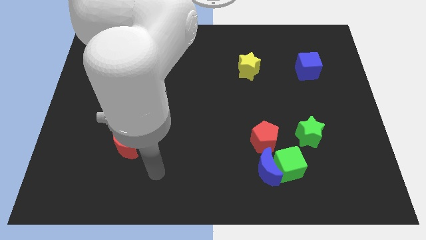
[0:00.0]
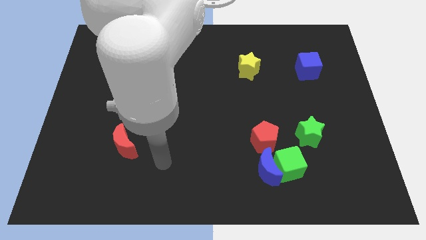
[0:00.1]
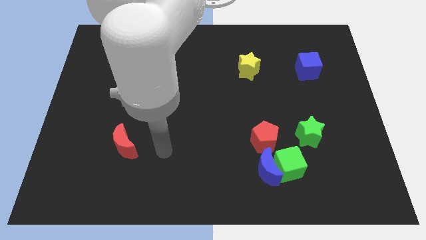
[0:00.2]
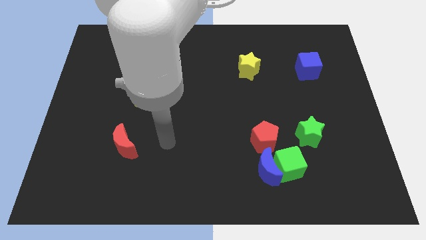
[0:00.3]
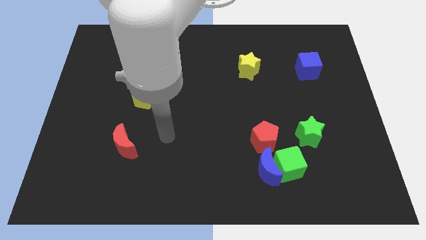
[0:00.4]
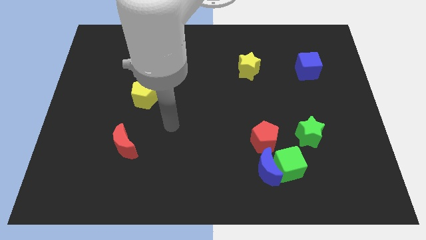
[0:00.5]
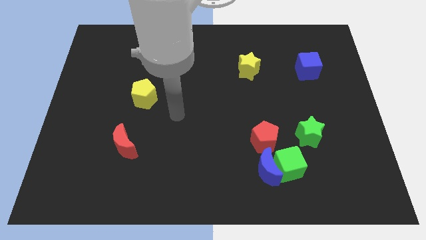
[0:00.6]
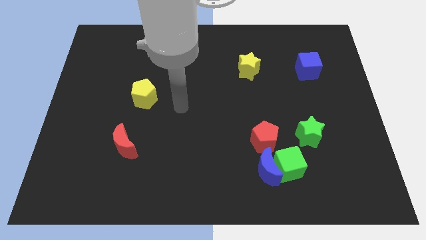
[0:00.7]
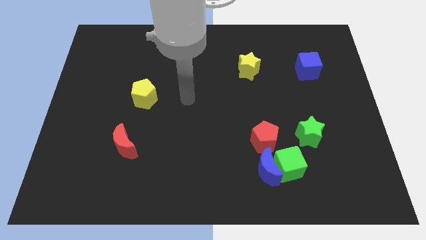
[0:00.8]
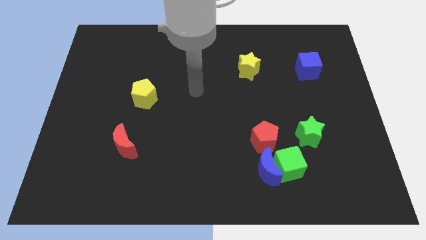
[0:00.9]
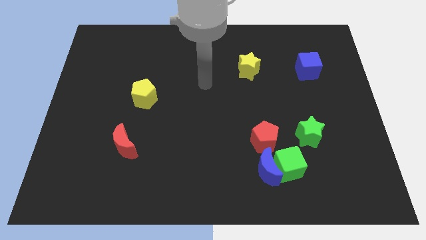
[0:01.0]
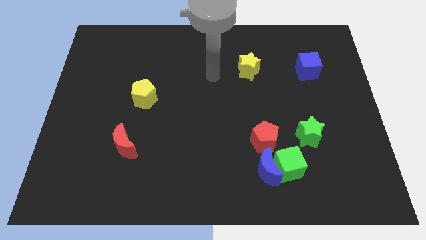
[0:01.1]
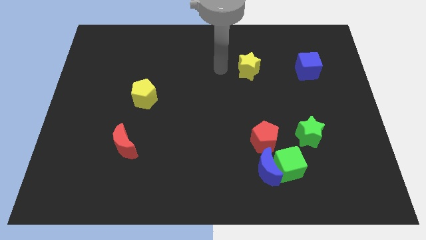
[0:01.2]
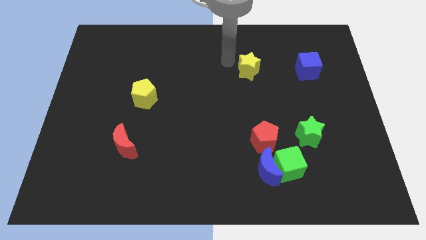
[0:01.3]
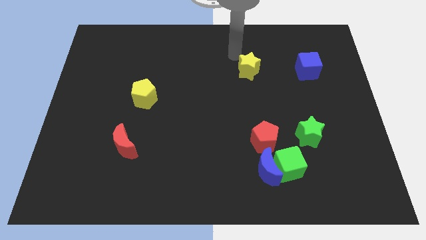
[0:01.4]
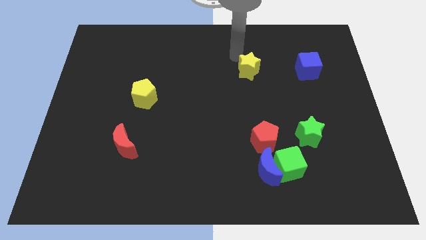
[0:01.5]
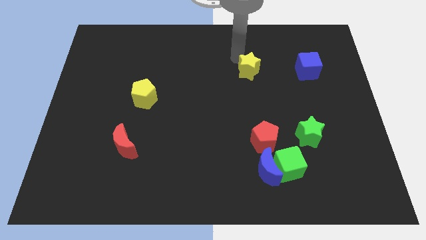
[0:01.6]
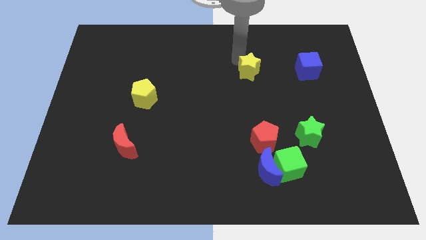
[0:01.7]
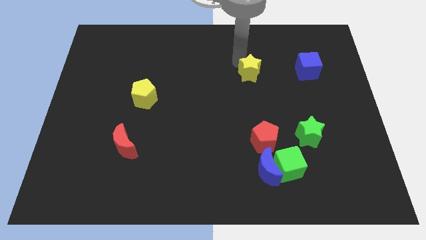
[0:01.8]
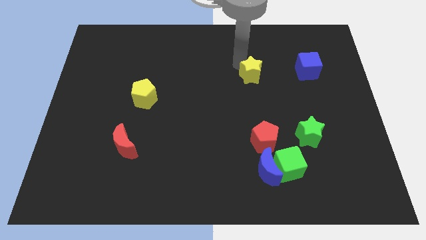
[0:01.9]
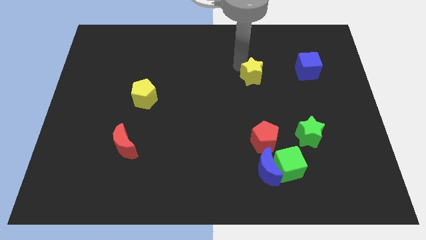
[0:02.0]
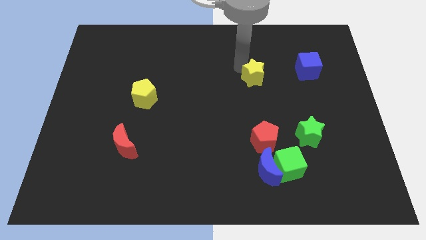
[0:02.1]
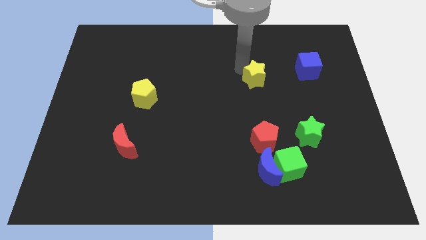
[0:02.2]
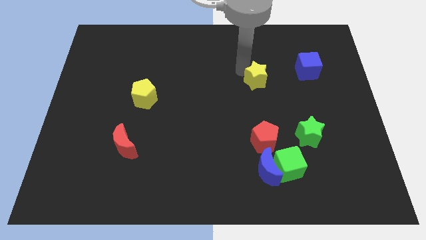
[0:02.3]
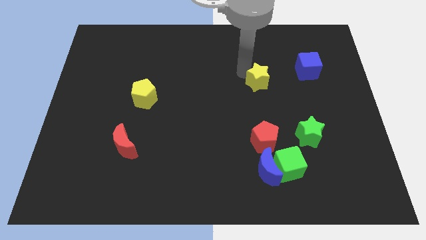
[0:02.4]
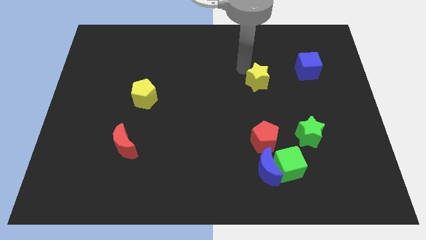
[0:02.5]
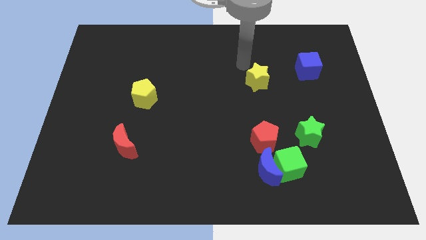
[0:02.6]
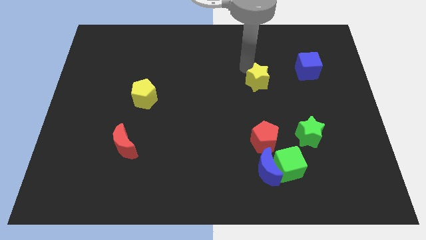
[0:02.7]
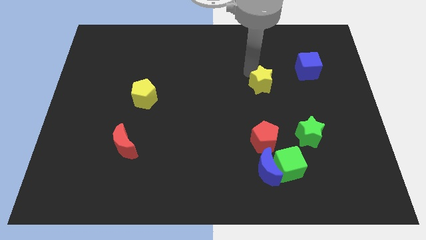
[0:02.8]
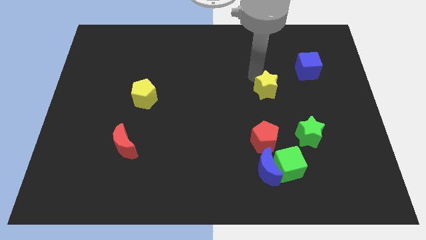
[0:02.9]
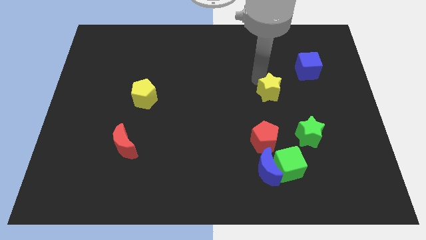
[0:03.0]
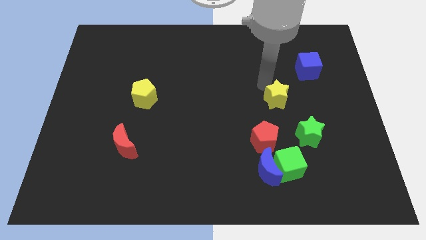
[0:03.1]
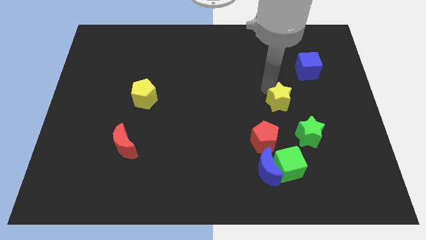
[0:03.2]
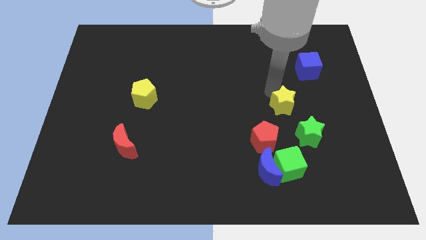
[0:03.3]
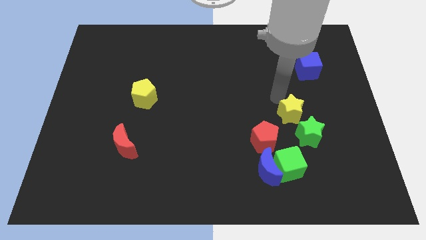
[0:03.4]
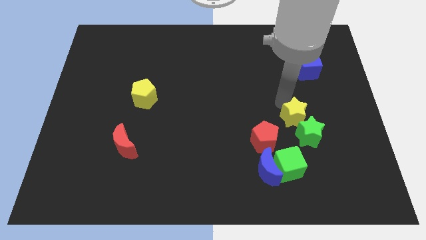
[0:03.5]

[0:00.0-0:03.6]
move the yellow star next to the green star

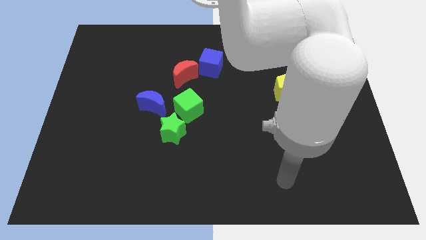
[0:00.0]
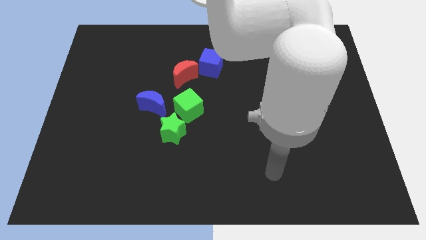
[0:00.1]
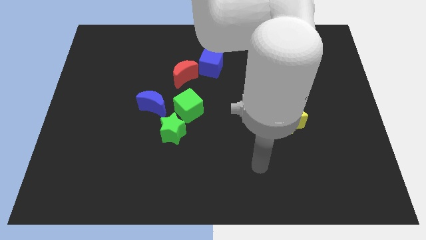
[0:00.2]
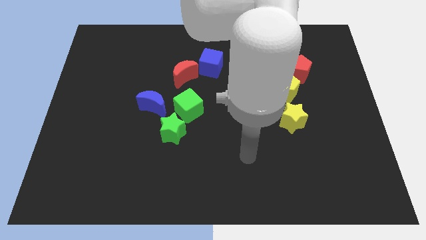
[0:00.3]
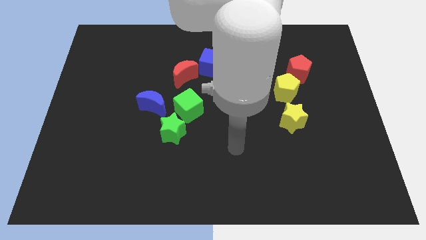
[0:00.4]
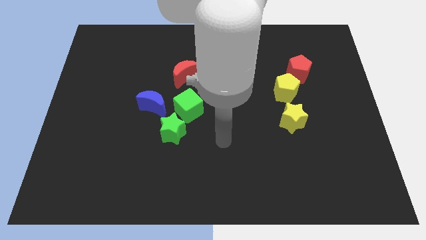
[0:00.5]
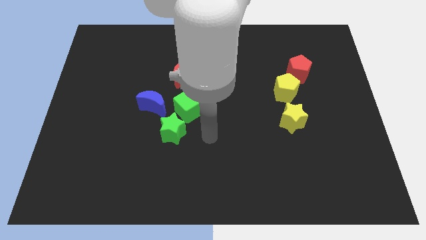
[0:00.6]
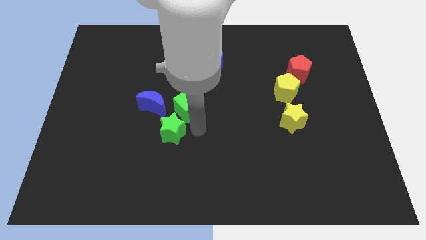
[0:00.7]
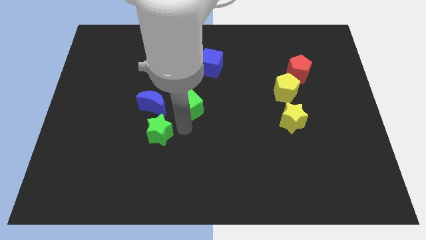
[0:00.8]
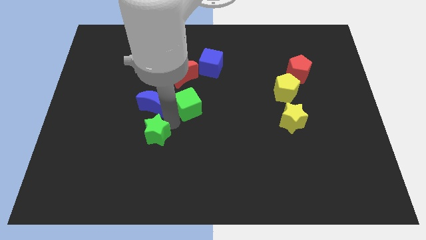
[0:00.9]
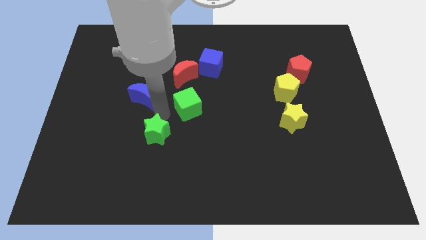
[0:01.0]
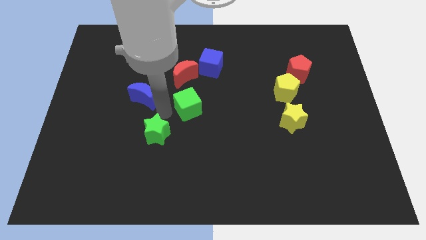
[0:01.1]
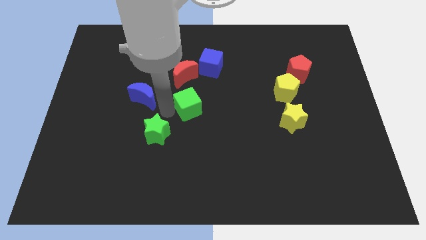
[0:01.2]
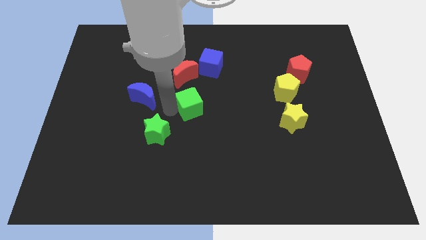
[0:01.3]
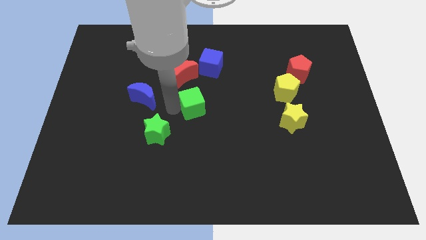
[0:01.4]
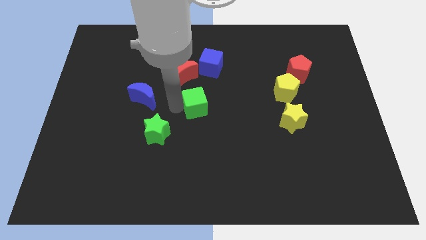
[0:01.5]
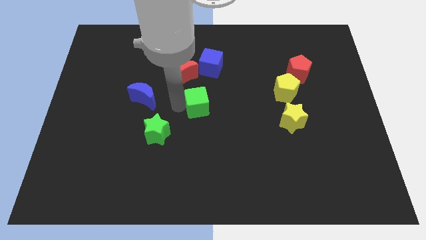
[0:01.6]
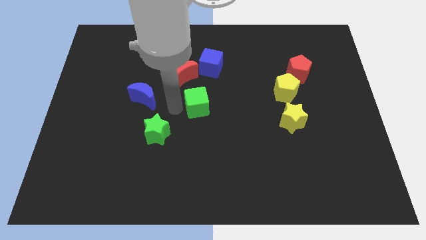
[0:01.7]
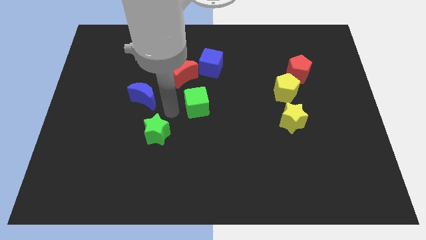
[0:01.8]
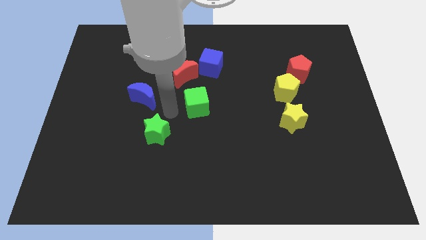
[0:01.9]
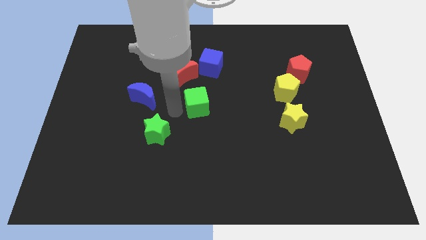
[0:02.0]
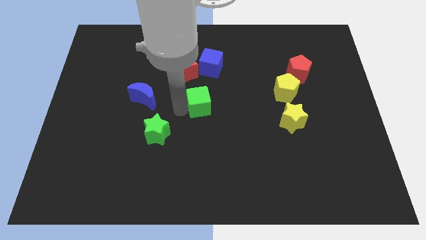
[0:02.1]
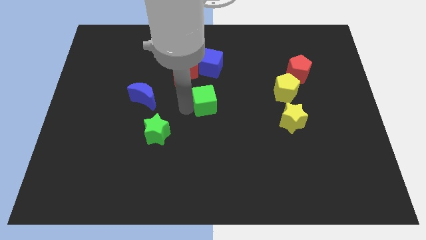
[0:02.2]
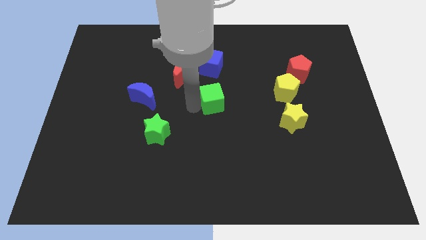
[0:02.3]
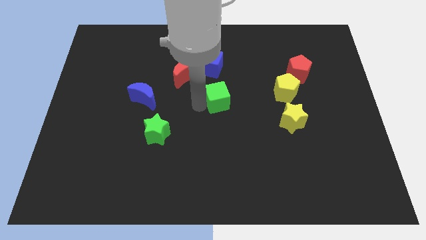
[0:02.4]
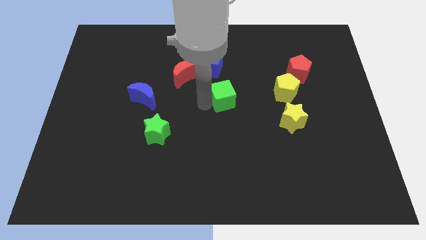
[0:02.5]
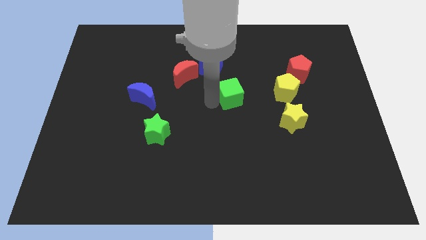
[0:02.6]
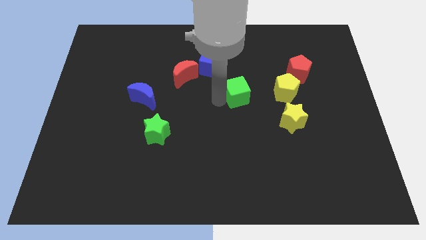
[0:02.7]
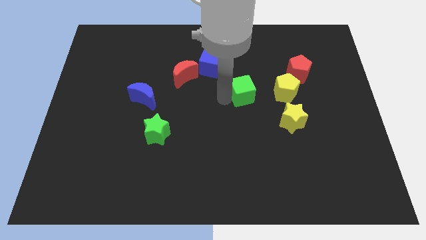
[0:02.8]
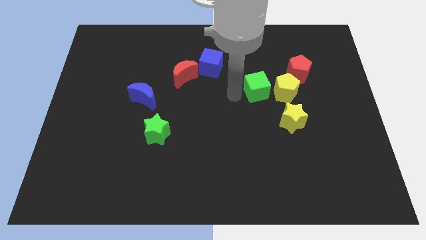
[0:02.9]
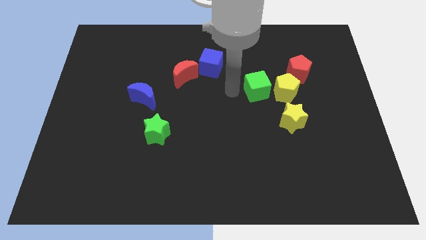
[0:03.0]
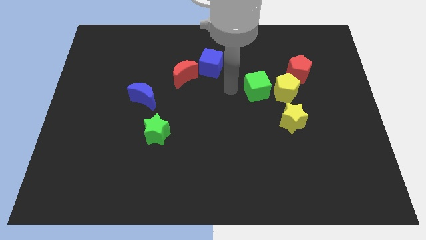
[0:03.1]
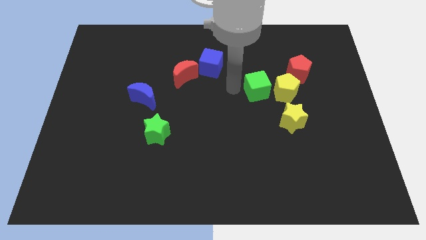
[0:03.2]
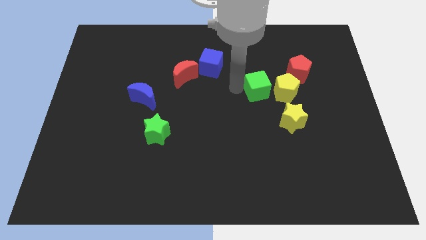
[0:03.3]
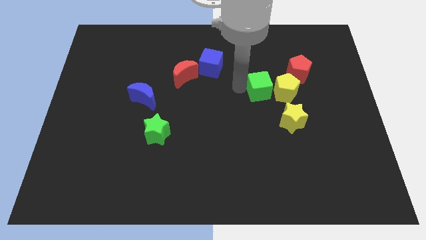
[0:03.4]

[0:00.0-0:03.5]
move the green cube to the yellow pentagon

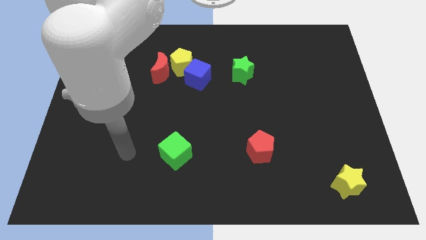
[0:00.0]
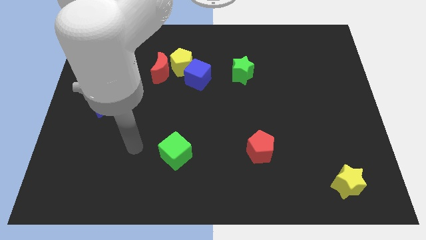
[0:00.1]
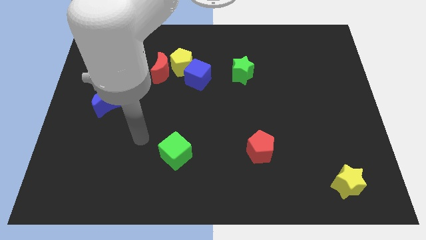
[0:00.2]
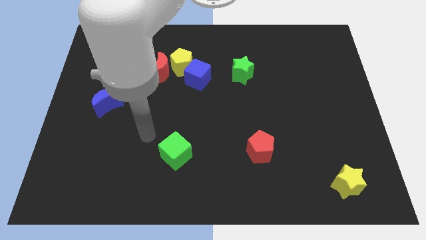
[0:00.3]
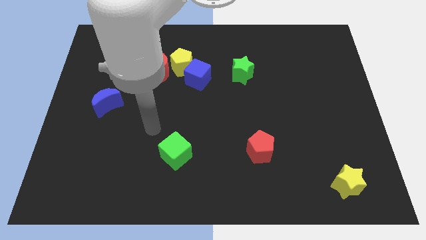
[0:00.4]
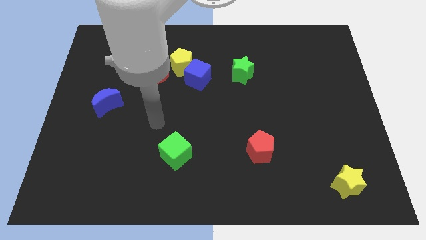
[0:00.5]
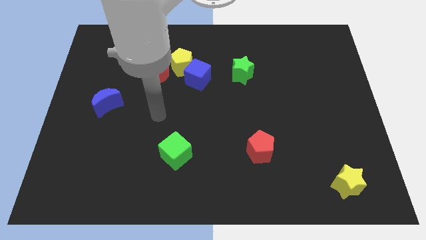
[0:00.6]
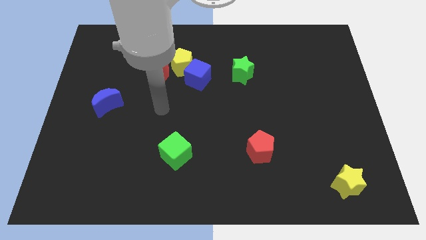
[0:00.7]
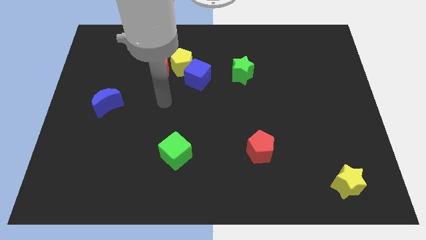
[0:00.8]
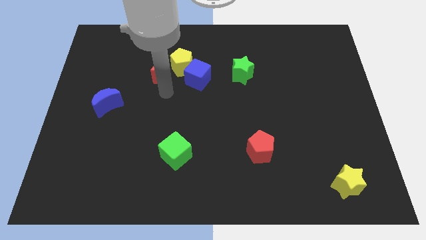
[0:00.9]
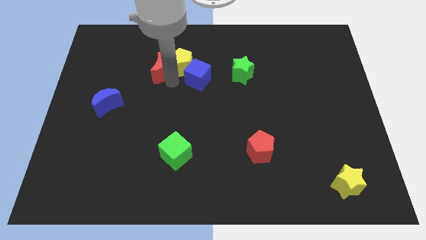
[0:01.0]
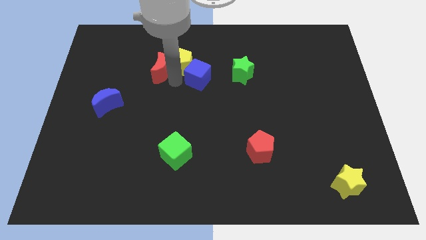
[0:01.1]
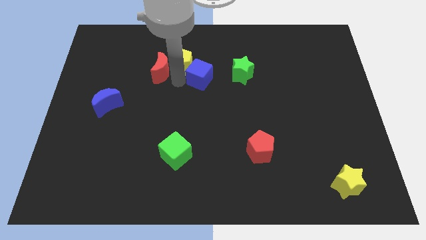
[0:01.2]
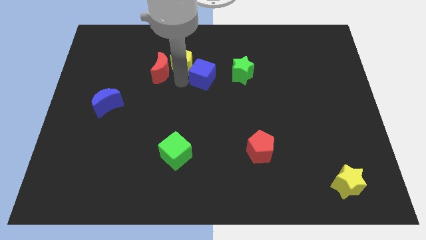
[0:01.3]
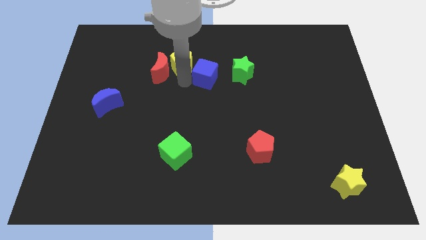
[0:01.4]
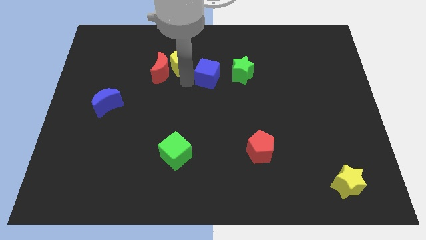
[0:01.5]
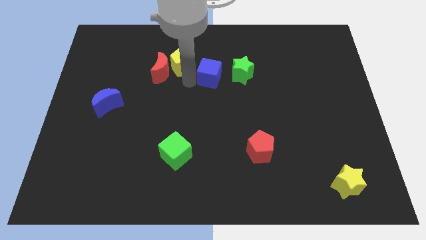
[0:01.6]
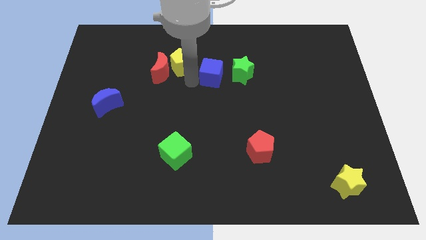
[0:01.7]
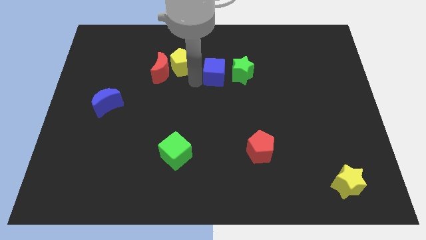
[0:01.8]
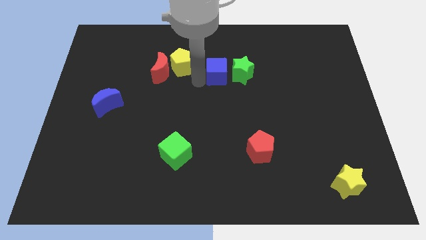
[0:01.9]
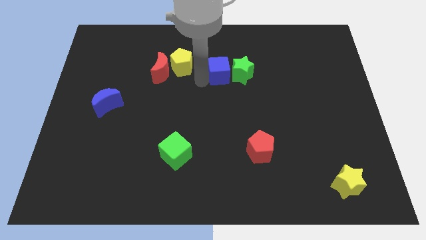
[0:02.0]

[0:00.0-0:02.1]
slide the blue cube next to the green star
